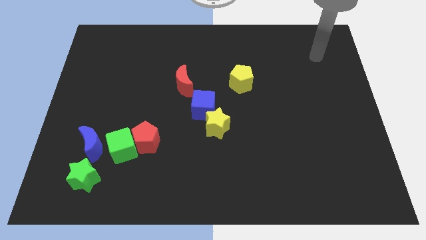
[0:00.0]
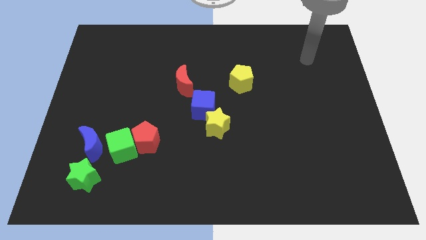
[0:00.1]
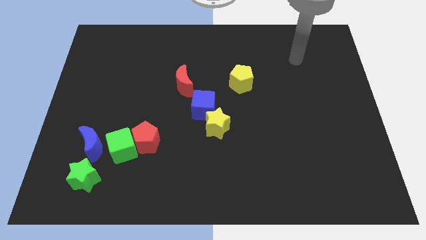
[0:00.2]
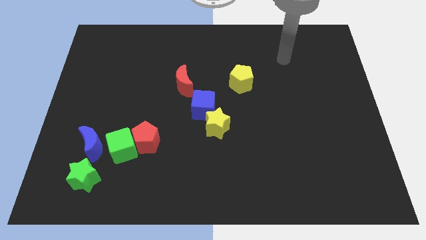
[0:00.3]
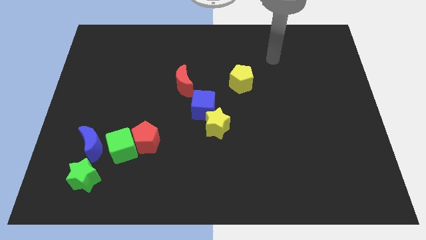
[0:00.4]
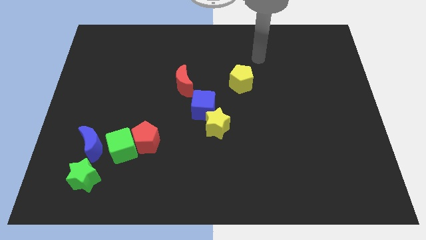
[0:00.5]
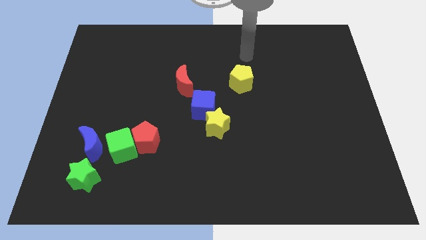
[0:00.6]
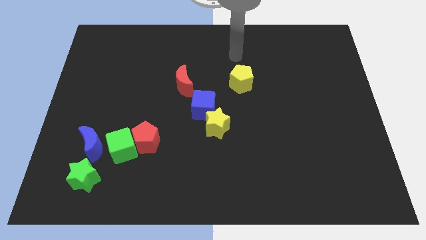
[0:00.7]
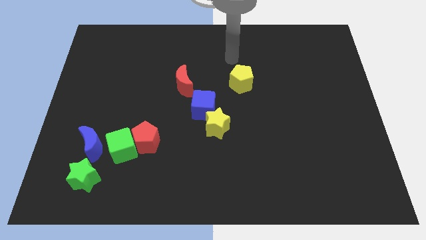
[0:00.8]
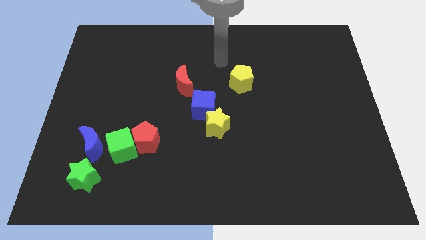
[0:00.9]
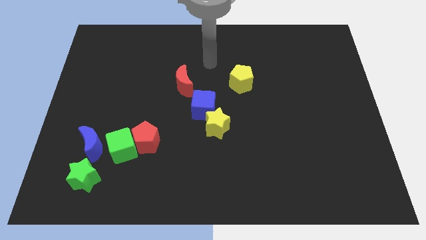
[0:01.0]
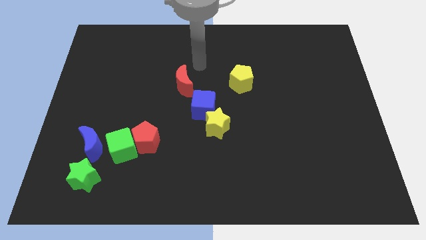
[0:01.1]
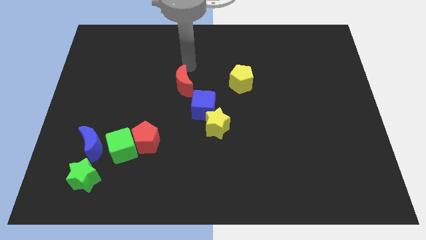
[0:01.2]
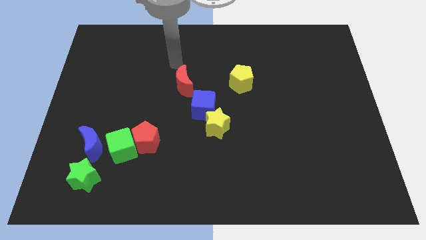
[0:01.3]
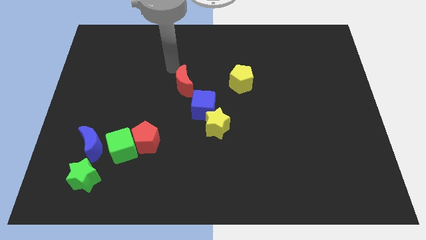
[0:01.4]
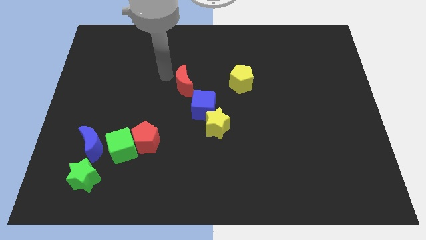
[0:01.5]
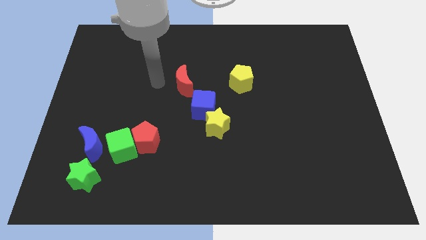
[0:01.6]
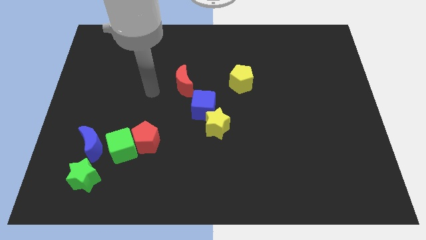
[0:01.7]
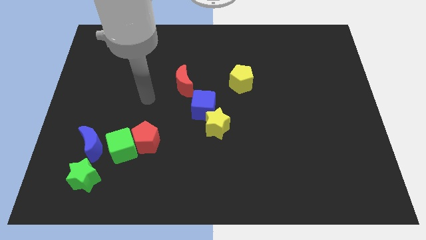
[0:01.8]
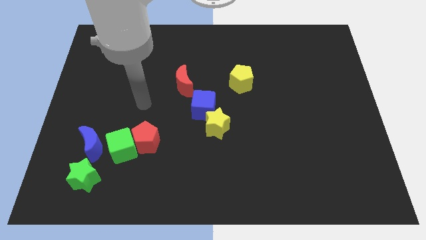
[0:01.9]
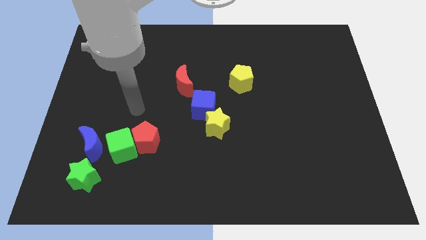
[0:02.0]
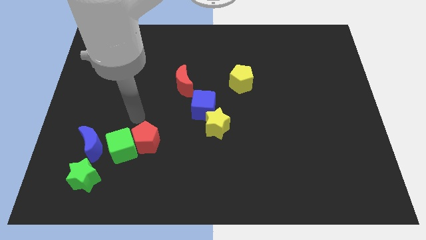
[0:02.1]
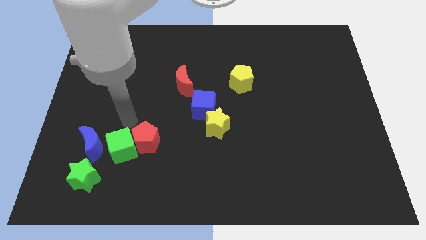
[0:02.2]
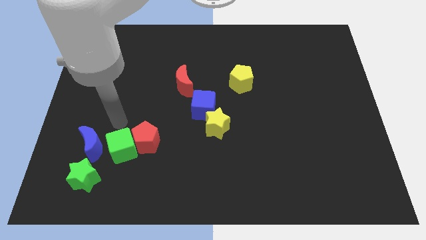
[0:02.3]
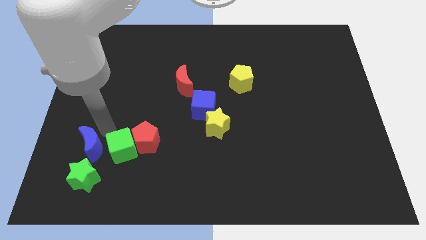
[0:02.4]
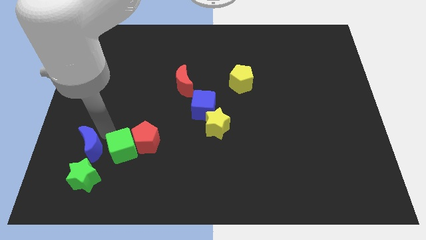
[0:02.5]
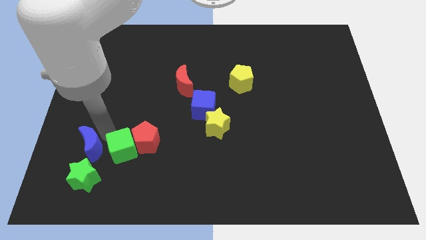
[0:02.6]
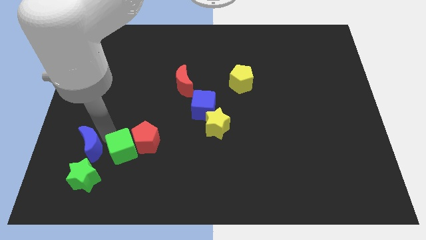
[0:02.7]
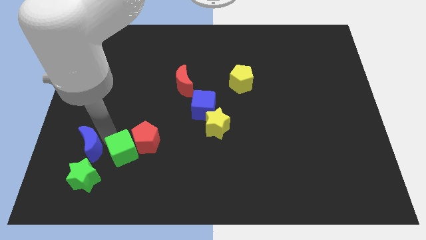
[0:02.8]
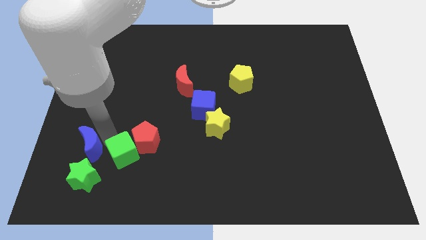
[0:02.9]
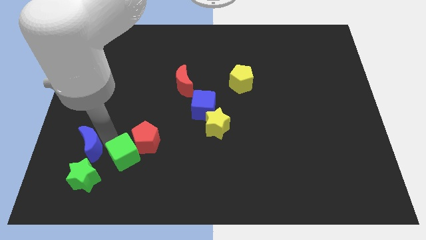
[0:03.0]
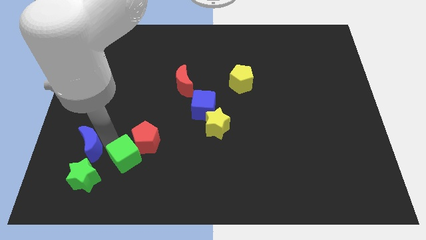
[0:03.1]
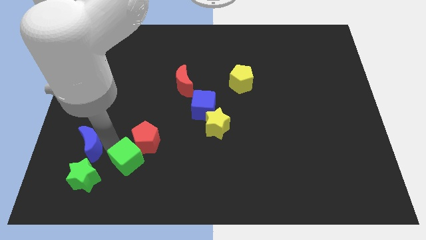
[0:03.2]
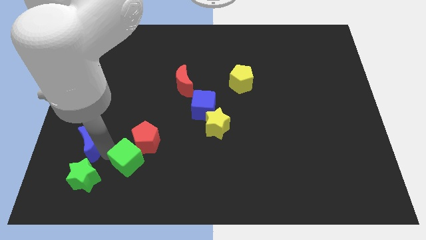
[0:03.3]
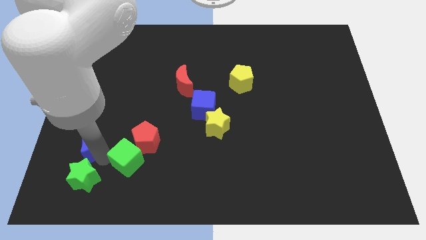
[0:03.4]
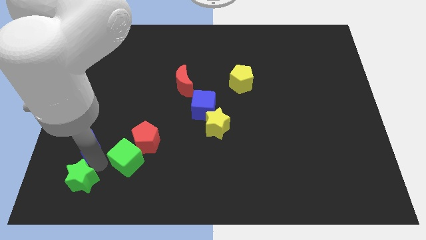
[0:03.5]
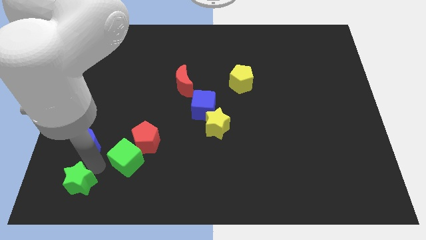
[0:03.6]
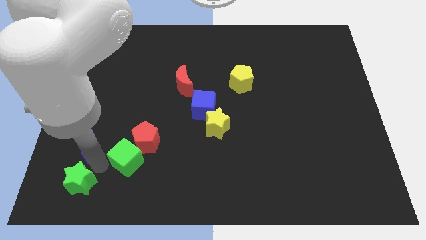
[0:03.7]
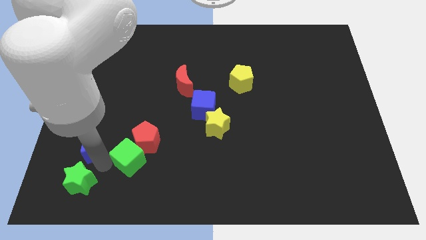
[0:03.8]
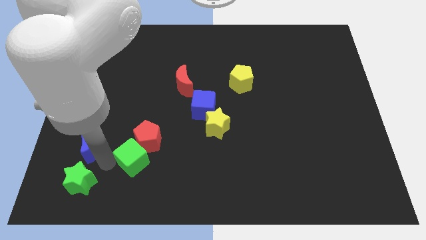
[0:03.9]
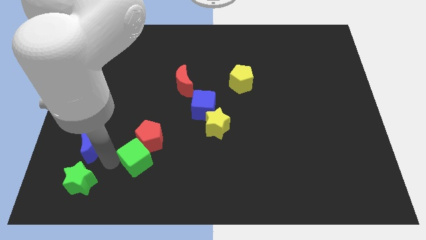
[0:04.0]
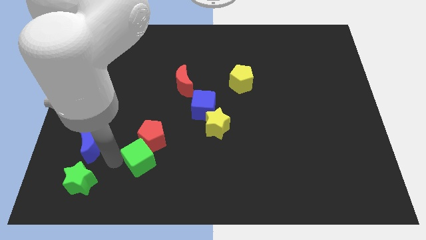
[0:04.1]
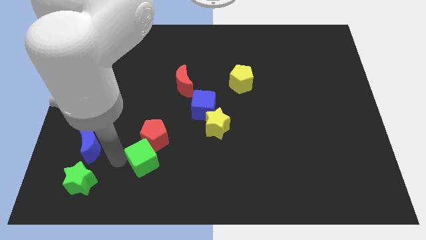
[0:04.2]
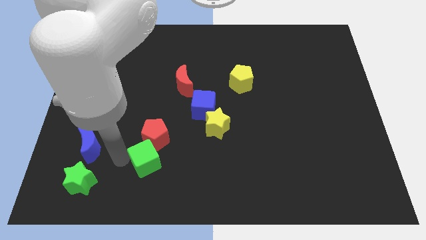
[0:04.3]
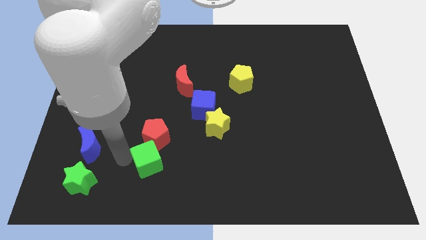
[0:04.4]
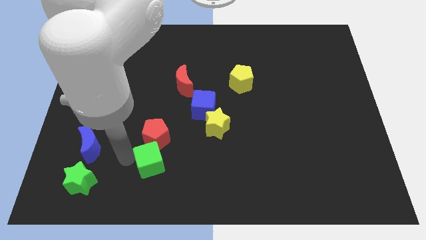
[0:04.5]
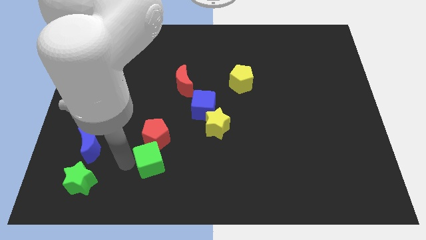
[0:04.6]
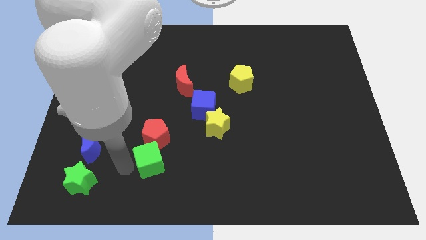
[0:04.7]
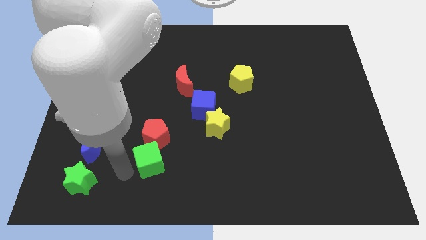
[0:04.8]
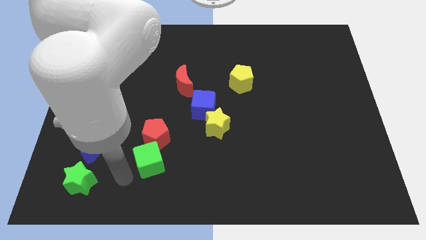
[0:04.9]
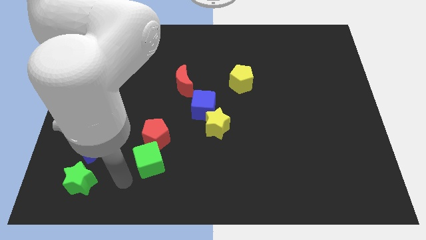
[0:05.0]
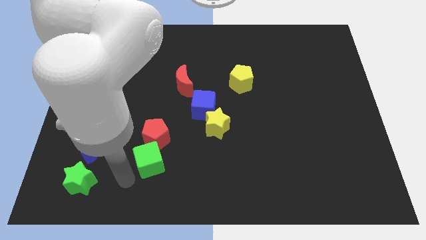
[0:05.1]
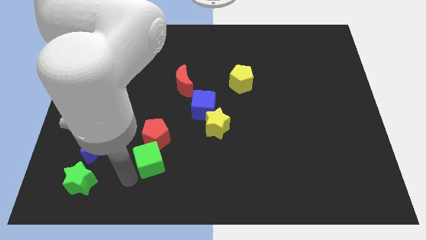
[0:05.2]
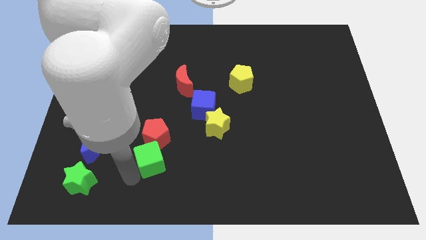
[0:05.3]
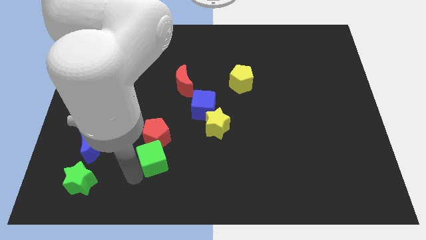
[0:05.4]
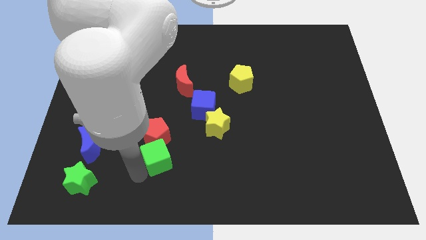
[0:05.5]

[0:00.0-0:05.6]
move the green cube slightly to the right

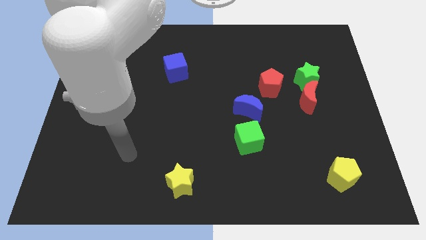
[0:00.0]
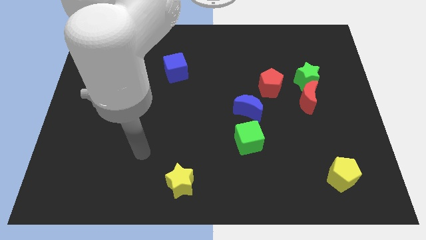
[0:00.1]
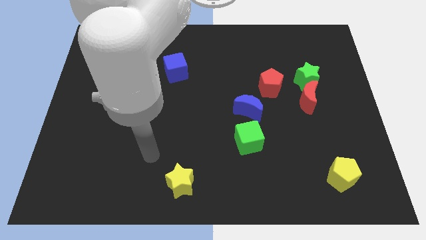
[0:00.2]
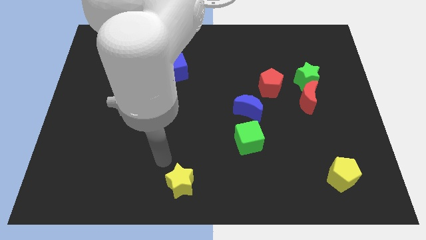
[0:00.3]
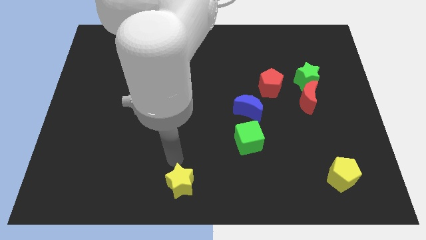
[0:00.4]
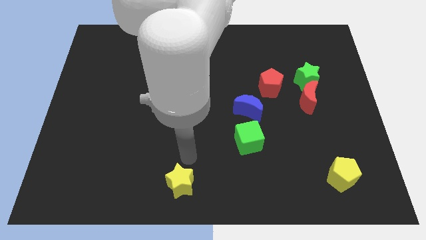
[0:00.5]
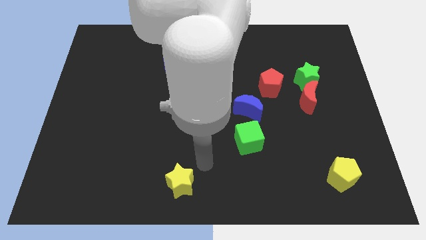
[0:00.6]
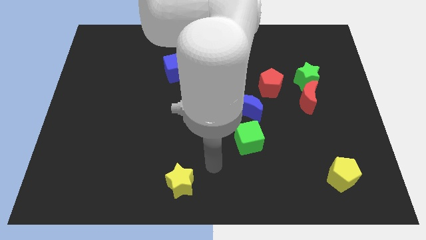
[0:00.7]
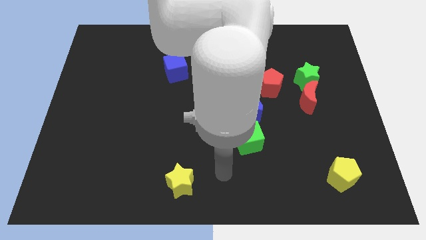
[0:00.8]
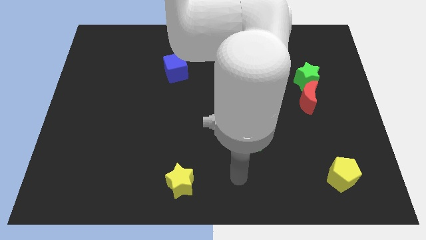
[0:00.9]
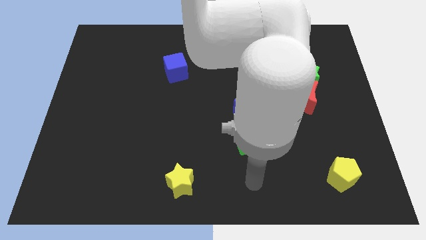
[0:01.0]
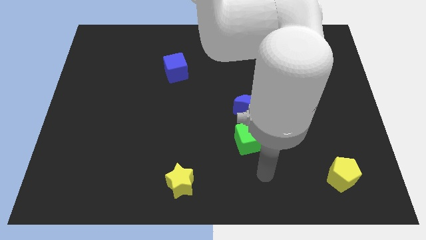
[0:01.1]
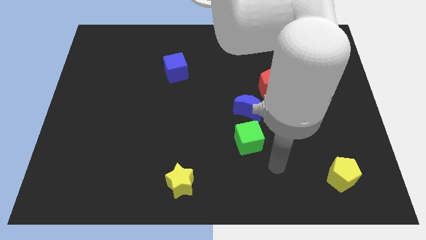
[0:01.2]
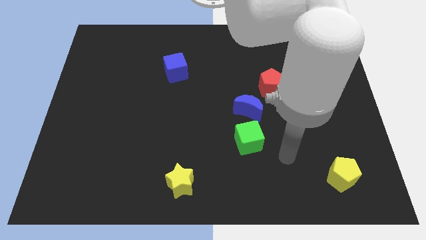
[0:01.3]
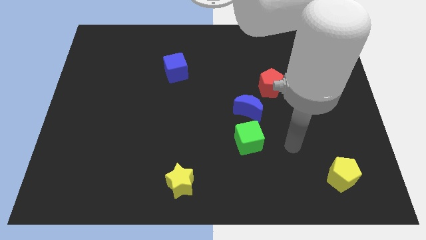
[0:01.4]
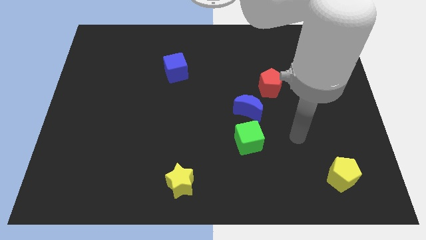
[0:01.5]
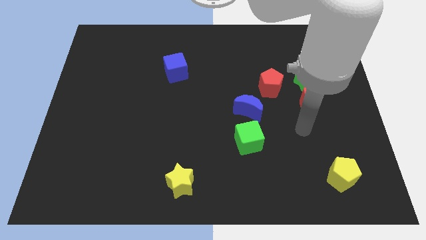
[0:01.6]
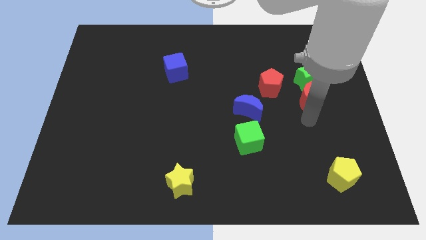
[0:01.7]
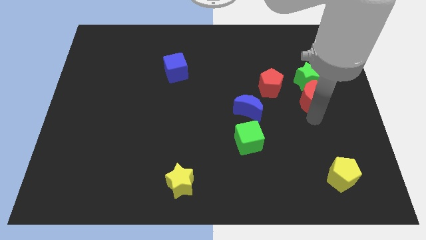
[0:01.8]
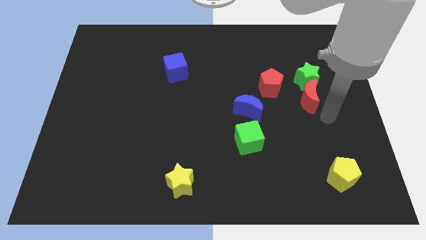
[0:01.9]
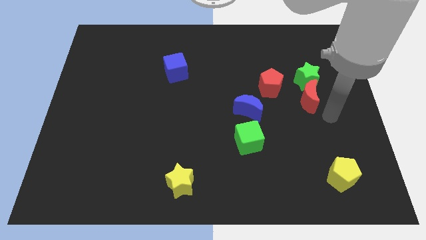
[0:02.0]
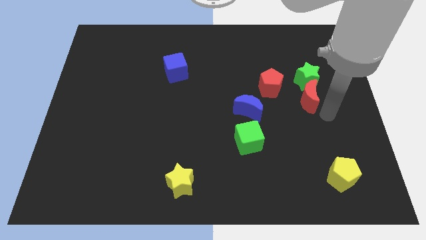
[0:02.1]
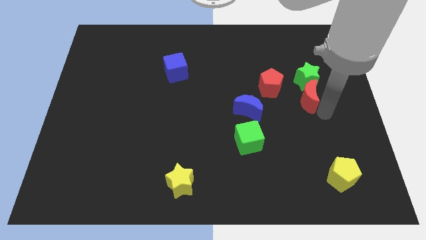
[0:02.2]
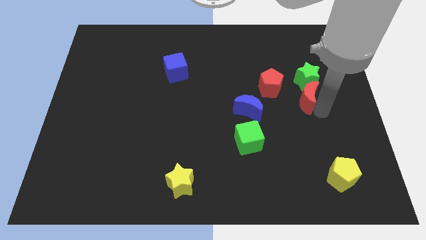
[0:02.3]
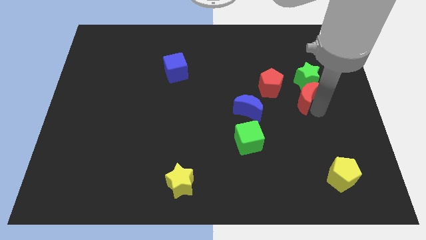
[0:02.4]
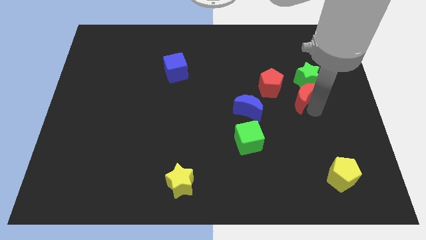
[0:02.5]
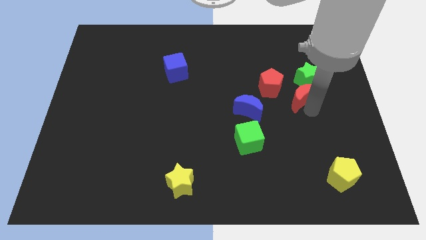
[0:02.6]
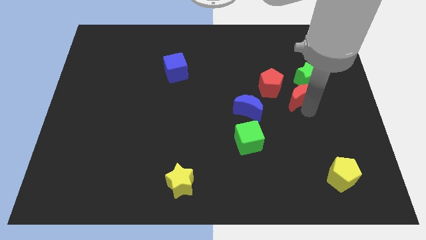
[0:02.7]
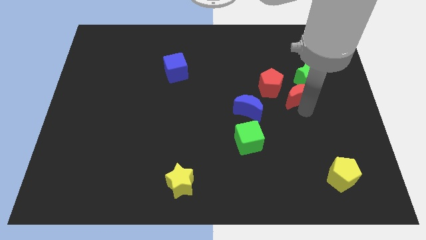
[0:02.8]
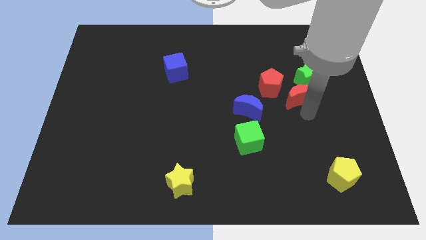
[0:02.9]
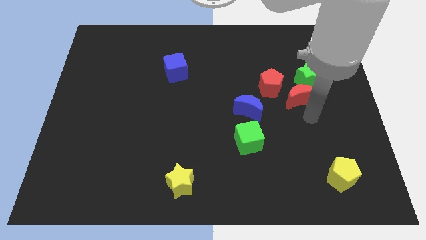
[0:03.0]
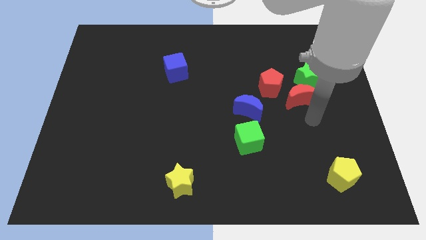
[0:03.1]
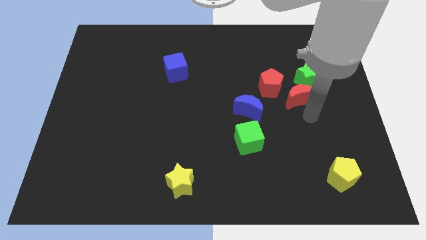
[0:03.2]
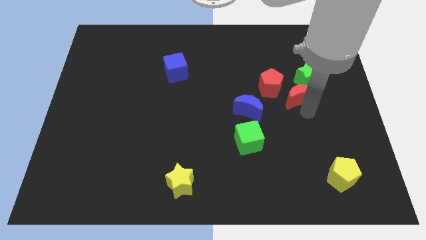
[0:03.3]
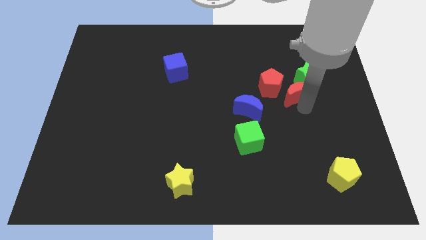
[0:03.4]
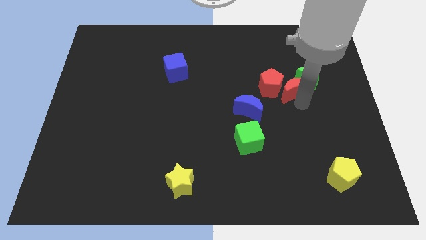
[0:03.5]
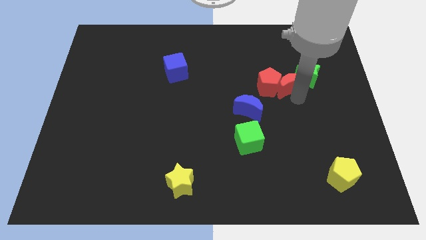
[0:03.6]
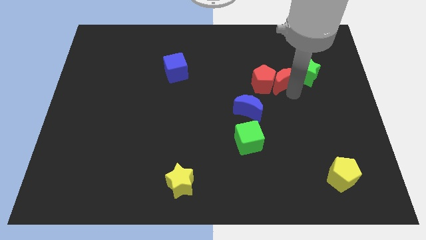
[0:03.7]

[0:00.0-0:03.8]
push the red moon a little upwards and to the left
